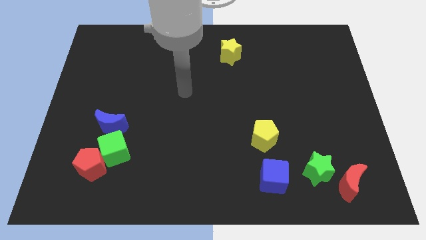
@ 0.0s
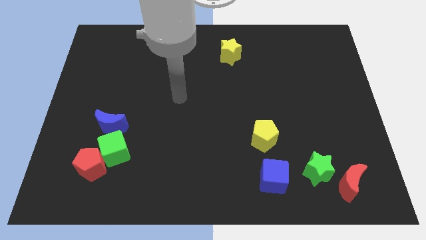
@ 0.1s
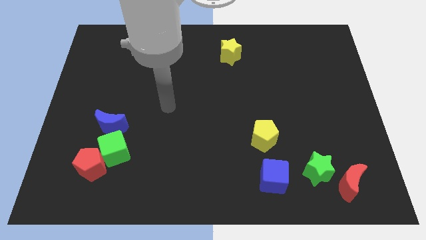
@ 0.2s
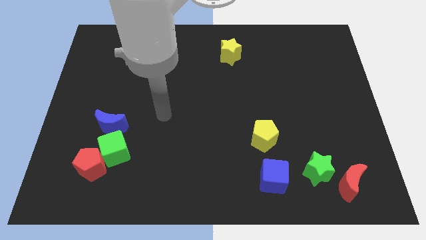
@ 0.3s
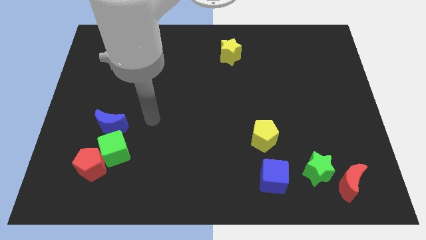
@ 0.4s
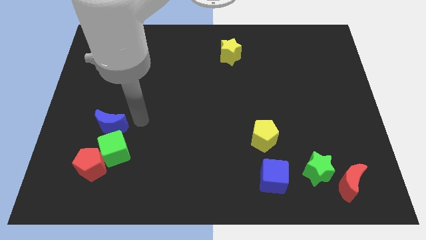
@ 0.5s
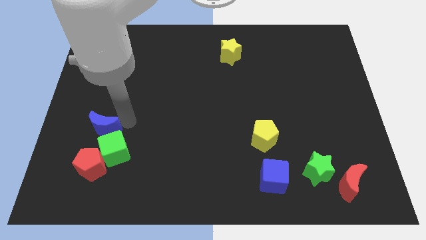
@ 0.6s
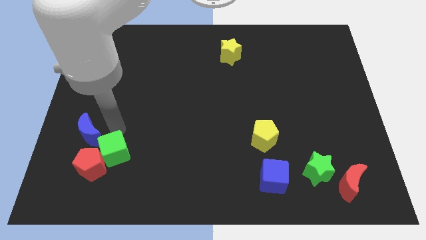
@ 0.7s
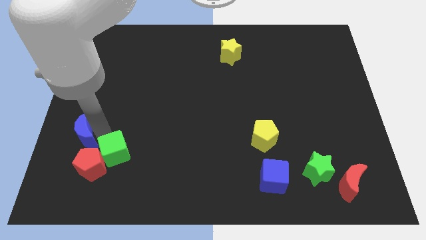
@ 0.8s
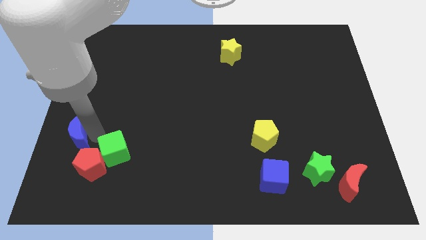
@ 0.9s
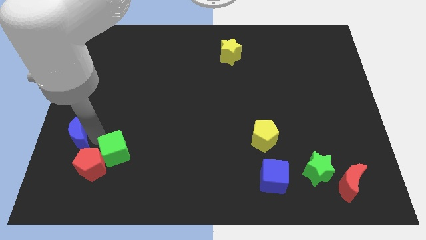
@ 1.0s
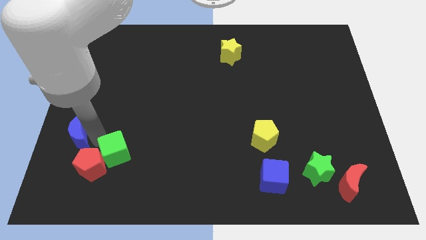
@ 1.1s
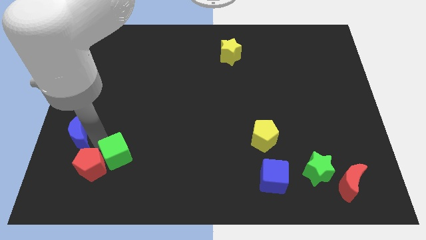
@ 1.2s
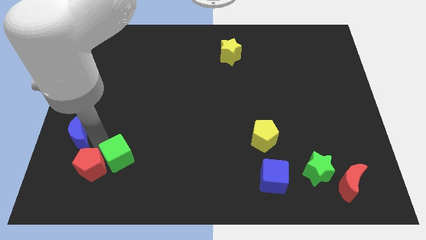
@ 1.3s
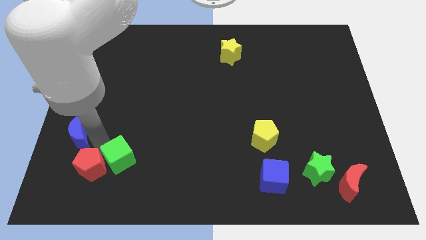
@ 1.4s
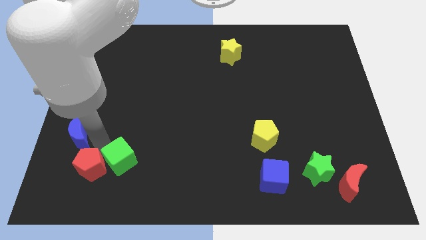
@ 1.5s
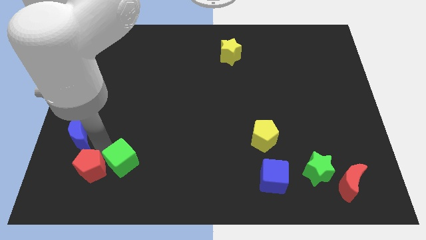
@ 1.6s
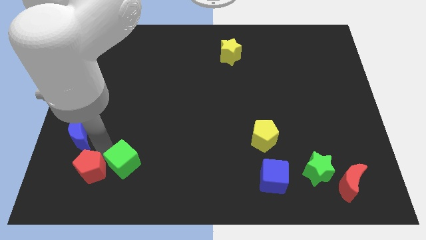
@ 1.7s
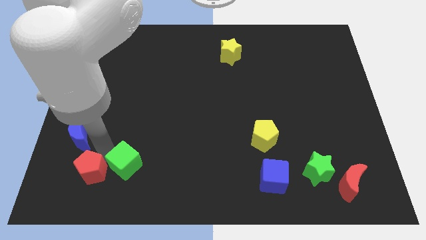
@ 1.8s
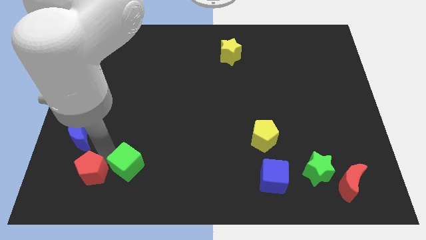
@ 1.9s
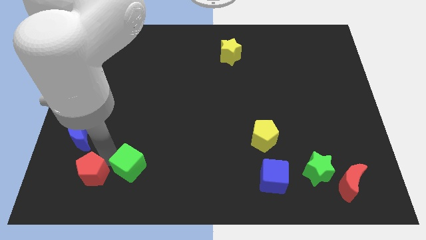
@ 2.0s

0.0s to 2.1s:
pull the green cube apart from the red pentagon and blue moon

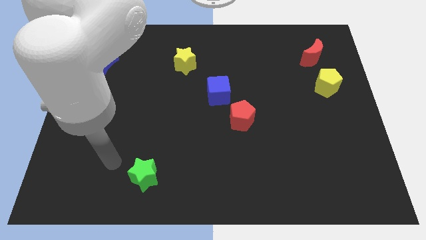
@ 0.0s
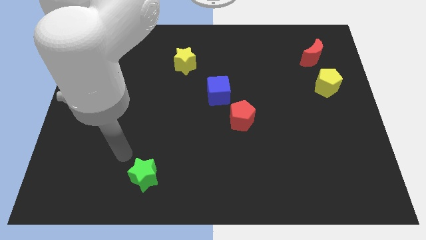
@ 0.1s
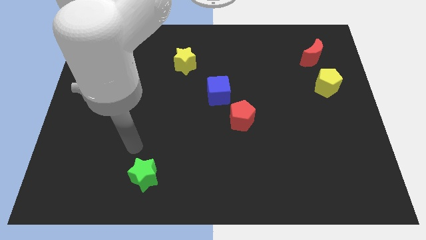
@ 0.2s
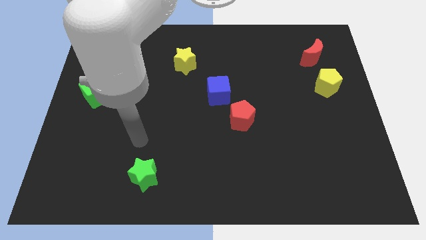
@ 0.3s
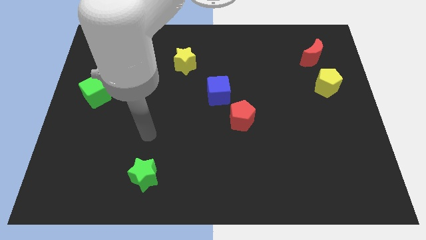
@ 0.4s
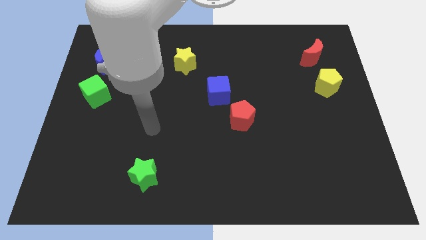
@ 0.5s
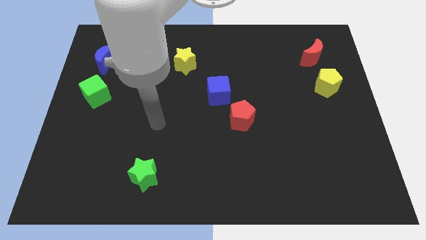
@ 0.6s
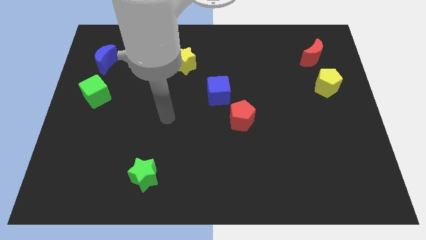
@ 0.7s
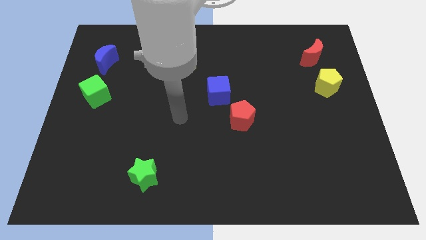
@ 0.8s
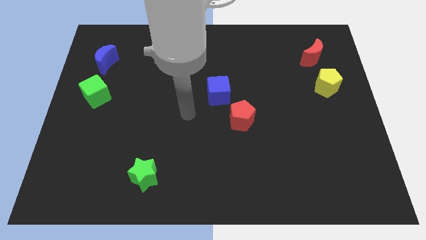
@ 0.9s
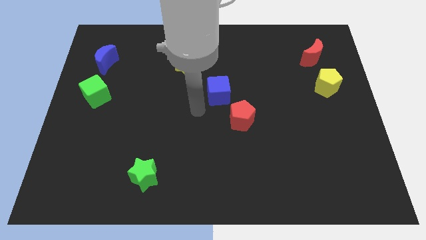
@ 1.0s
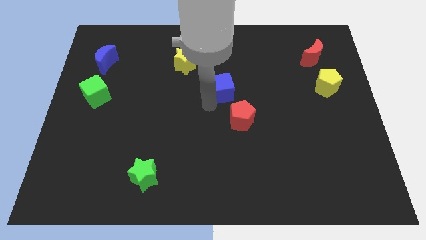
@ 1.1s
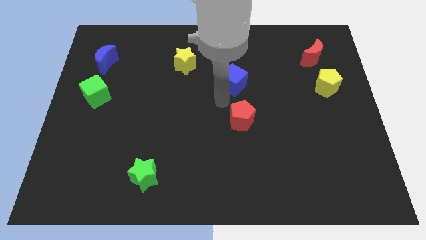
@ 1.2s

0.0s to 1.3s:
separate the red pentagon from the blue cube

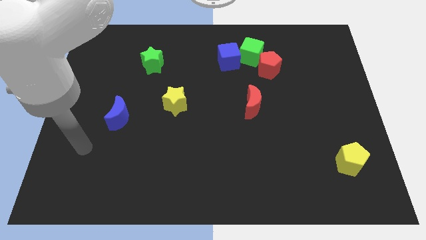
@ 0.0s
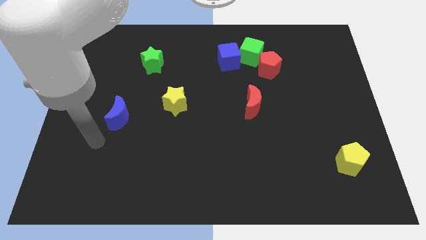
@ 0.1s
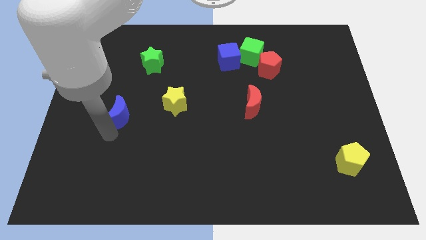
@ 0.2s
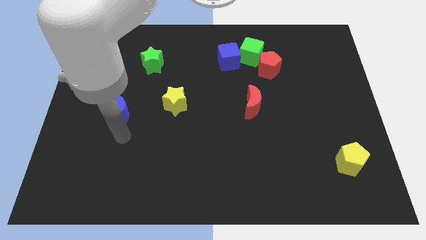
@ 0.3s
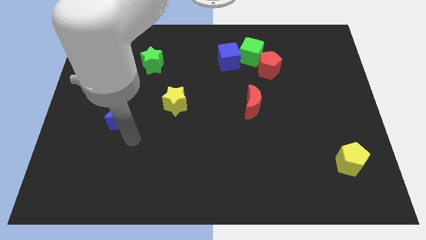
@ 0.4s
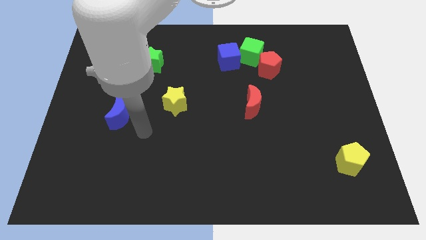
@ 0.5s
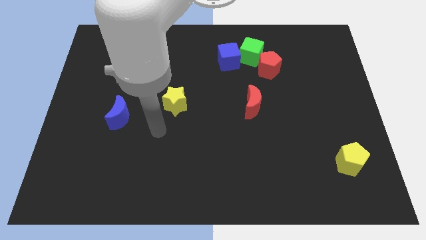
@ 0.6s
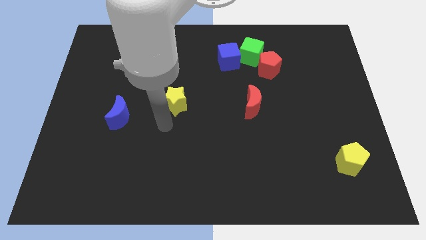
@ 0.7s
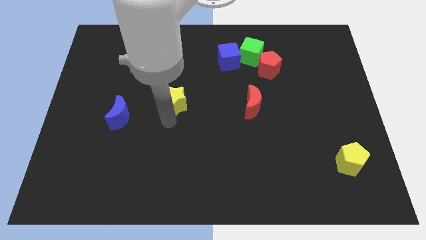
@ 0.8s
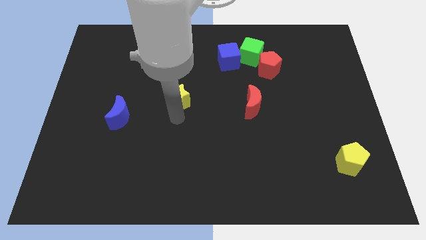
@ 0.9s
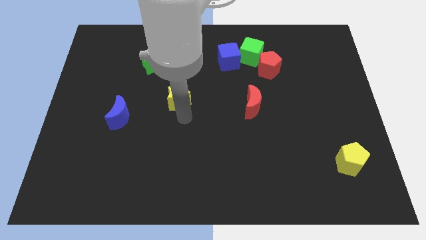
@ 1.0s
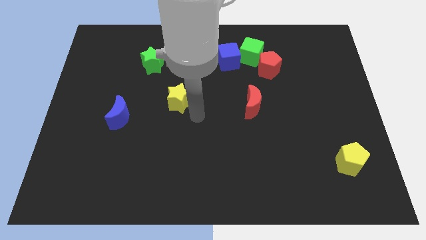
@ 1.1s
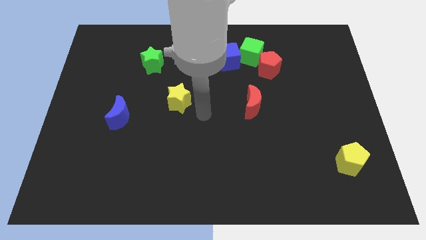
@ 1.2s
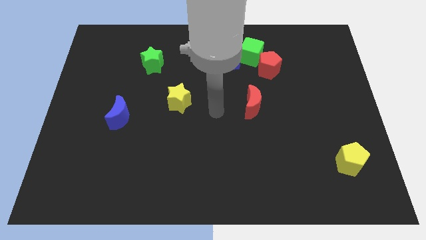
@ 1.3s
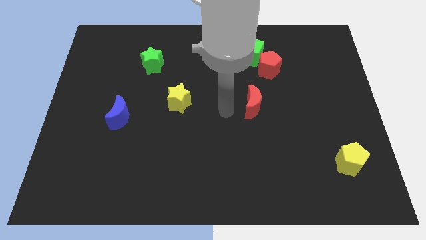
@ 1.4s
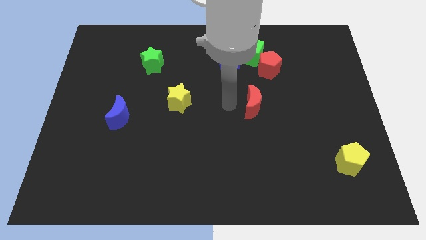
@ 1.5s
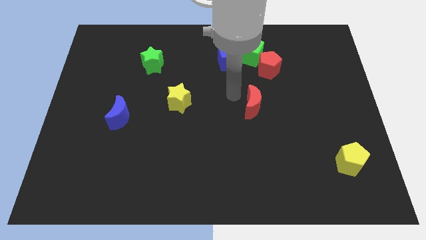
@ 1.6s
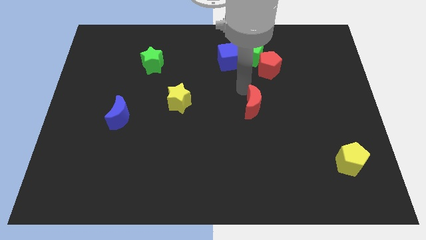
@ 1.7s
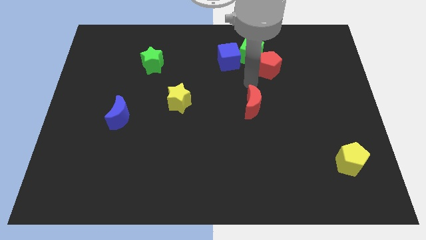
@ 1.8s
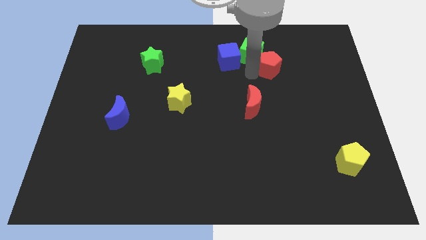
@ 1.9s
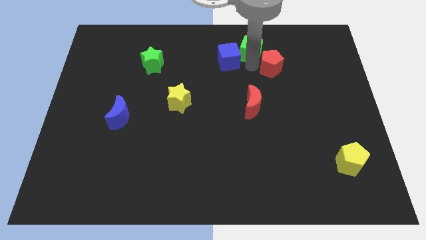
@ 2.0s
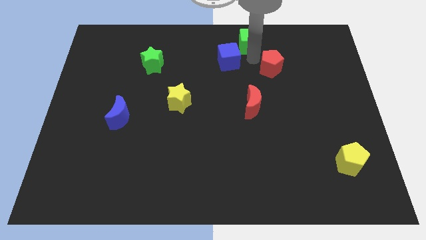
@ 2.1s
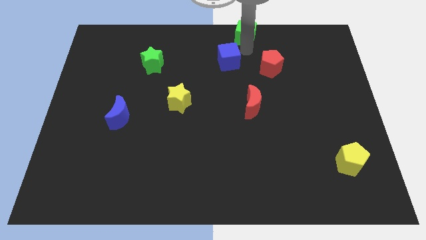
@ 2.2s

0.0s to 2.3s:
move the blue cube away from the green cube

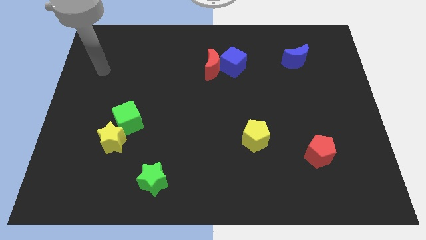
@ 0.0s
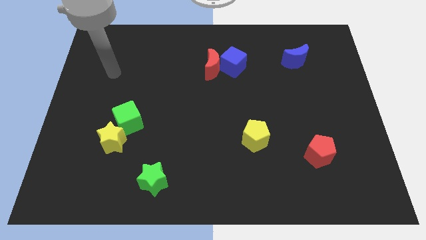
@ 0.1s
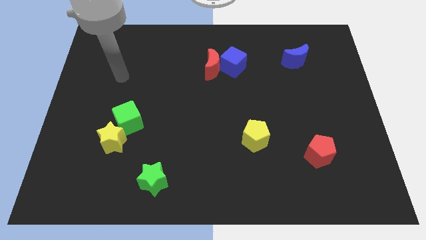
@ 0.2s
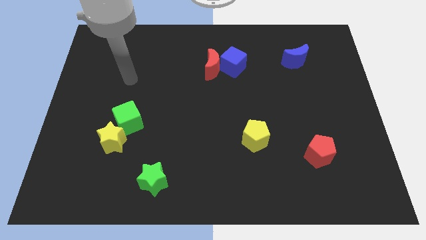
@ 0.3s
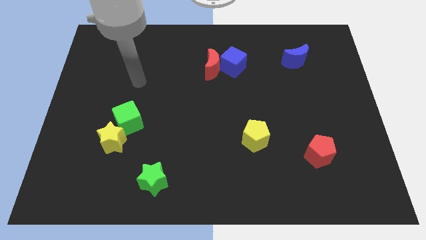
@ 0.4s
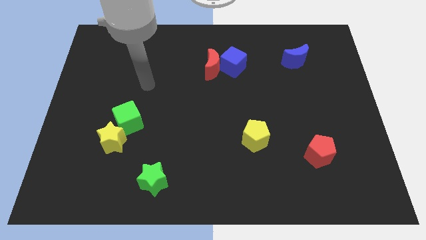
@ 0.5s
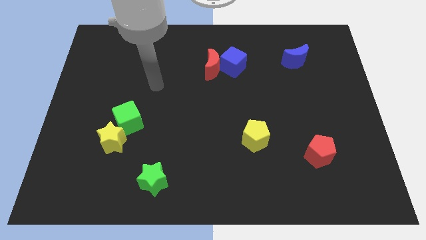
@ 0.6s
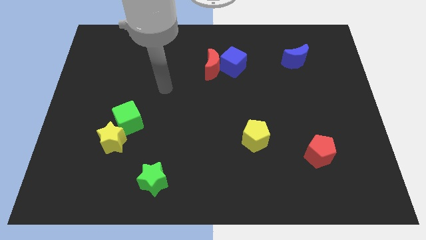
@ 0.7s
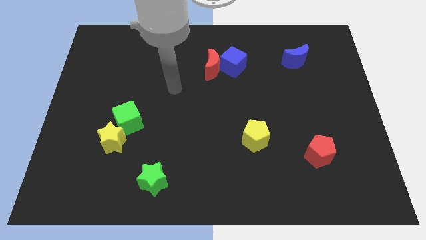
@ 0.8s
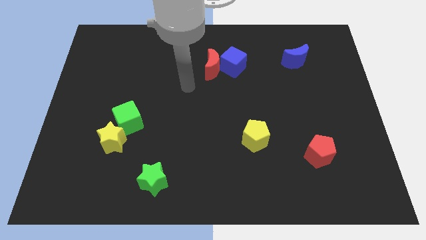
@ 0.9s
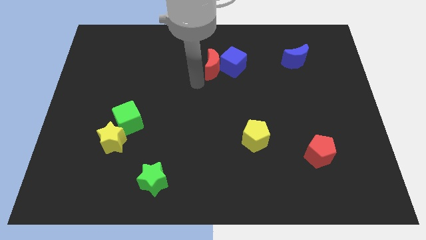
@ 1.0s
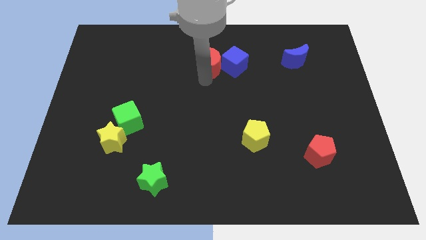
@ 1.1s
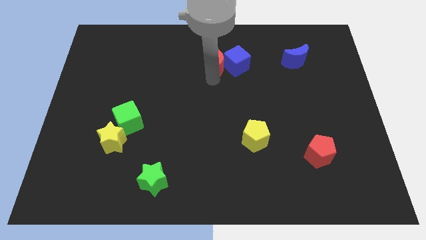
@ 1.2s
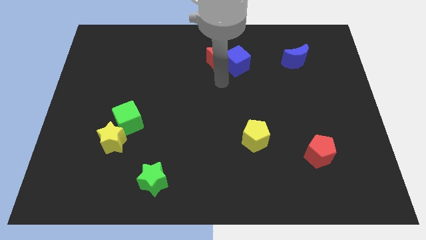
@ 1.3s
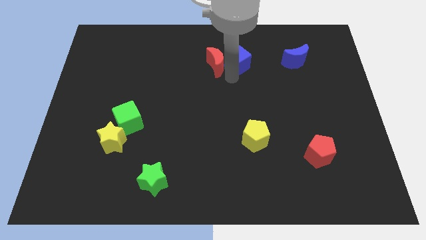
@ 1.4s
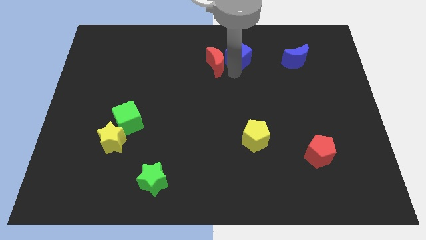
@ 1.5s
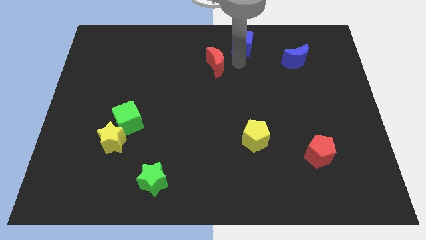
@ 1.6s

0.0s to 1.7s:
pull the red moon apart from the blue cube

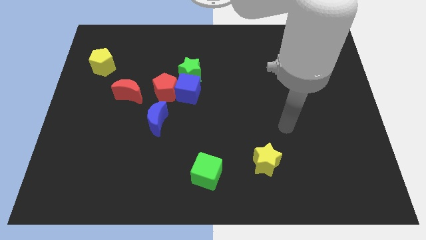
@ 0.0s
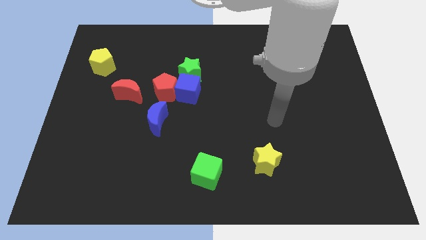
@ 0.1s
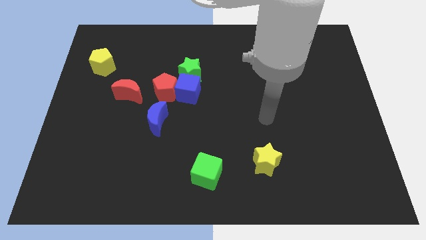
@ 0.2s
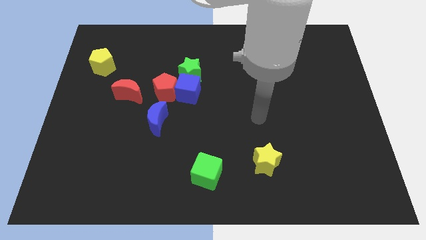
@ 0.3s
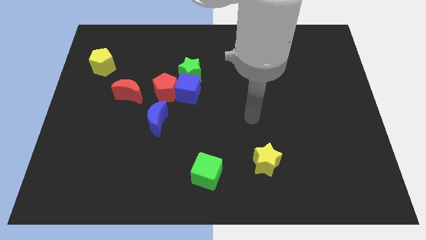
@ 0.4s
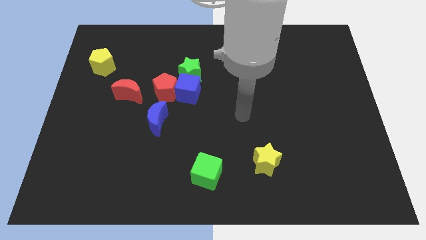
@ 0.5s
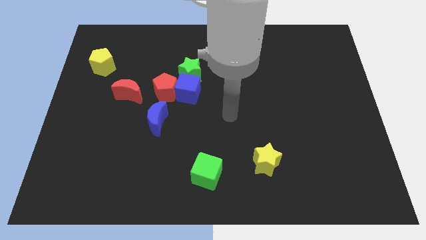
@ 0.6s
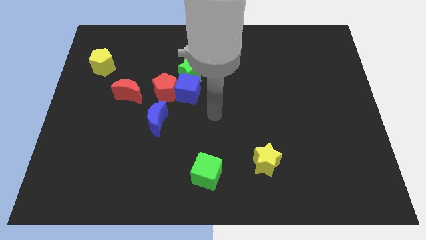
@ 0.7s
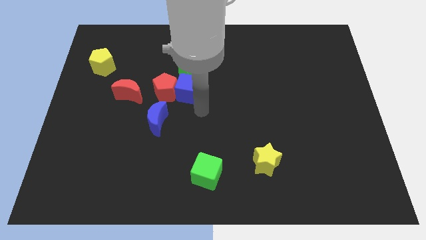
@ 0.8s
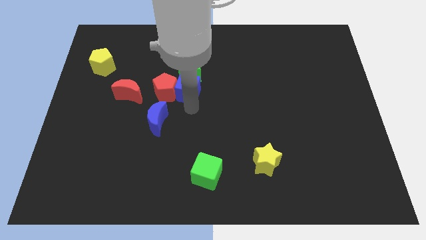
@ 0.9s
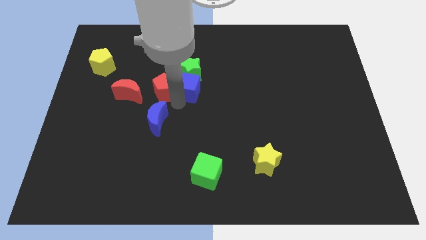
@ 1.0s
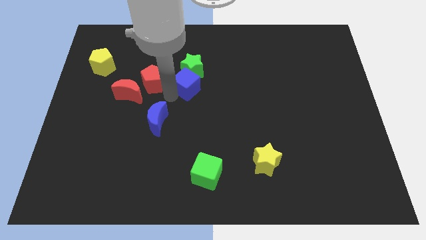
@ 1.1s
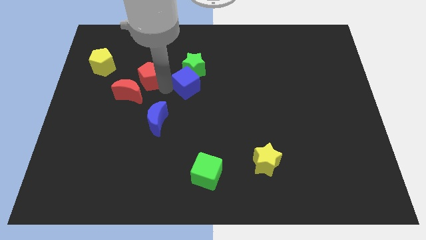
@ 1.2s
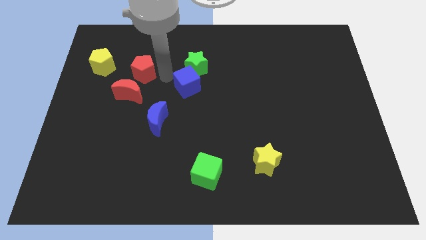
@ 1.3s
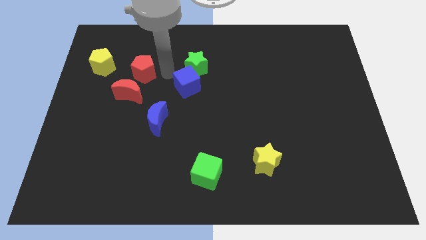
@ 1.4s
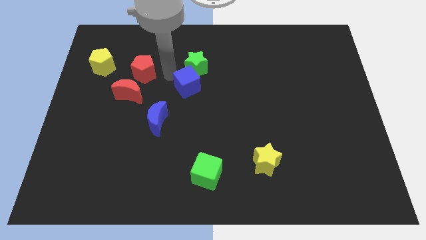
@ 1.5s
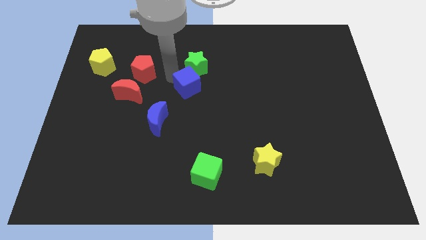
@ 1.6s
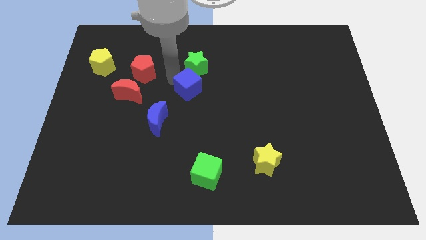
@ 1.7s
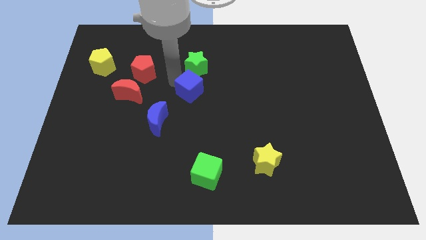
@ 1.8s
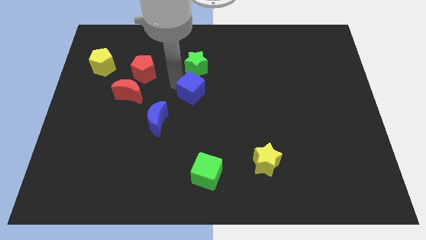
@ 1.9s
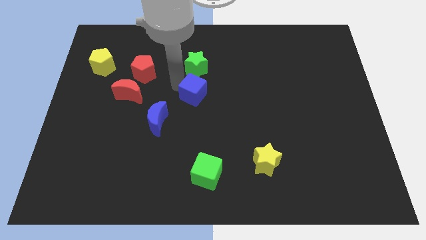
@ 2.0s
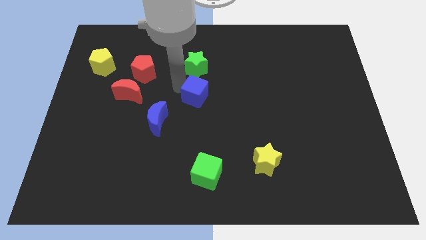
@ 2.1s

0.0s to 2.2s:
move the blue cube away from the red pentagon and green star
